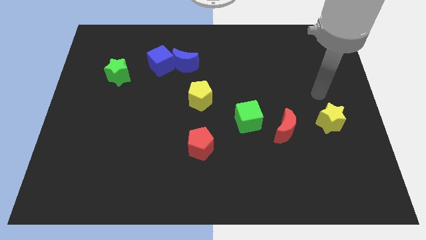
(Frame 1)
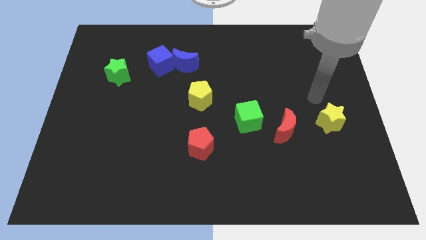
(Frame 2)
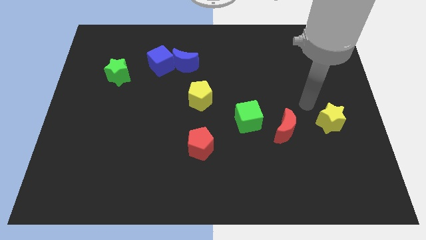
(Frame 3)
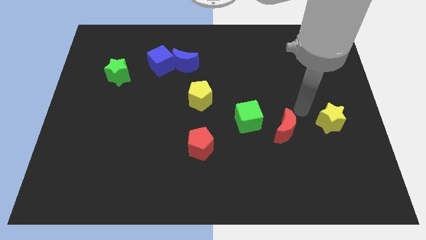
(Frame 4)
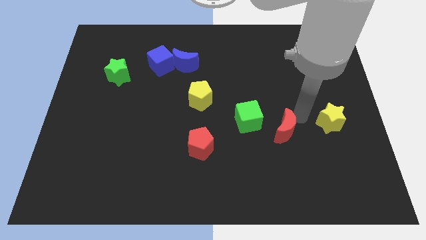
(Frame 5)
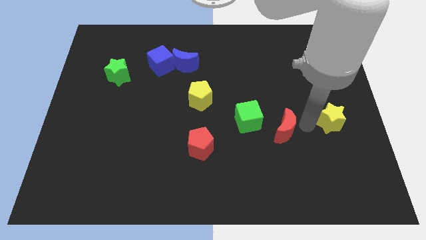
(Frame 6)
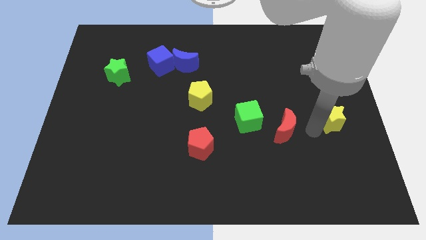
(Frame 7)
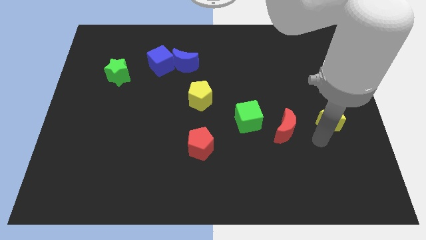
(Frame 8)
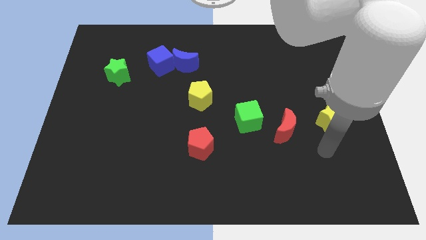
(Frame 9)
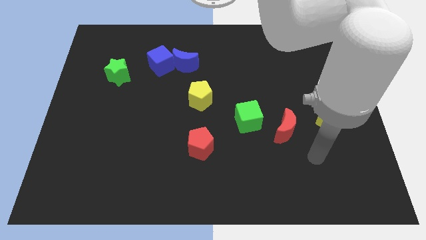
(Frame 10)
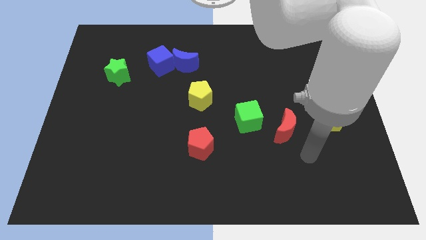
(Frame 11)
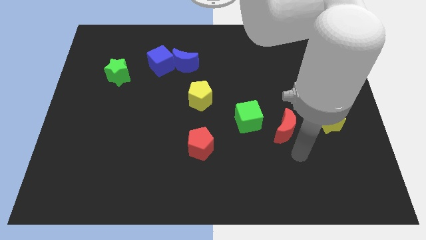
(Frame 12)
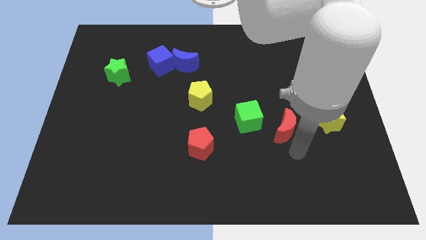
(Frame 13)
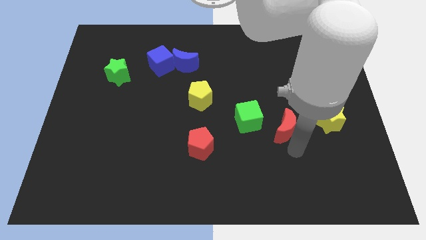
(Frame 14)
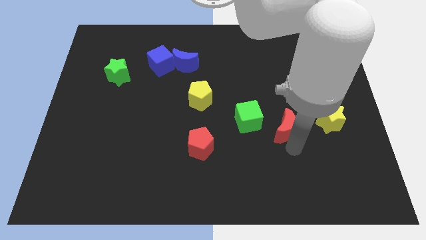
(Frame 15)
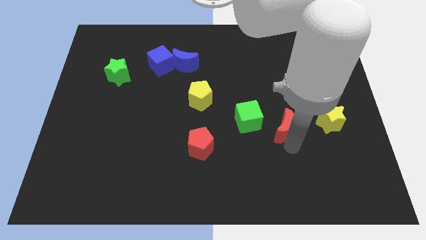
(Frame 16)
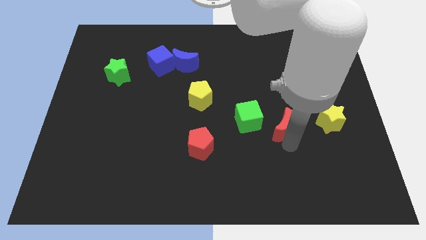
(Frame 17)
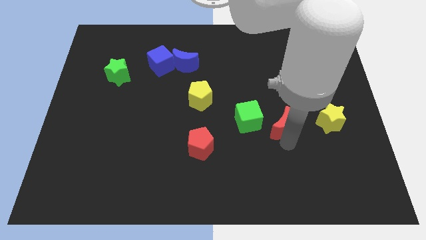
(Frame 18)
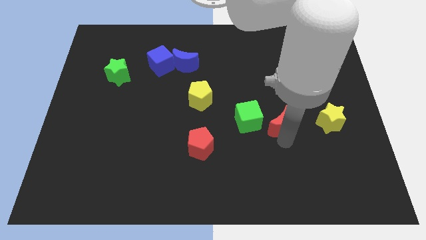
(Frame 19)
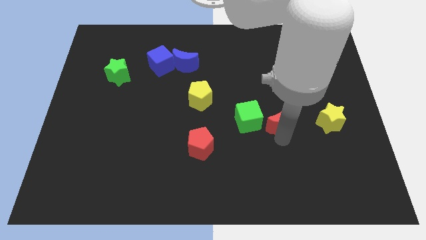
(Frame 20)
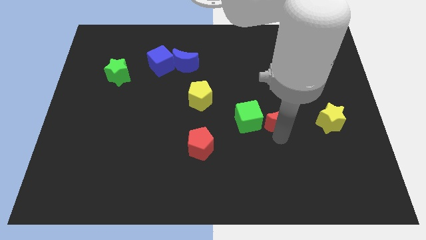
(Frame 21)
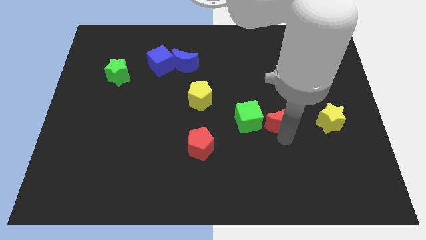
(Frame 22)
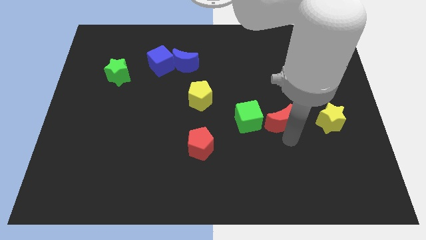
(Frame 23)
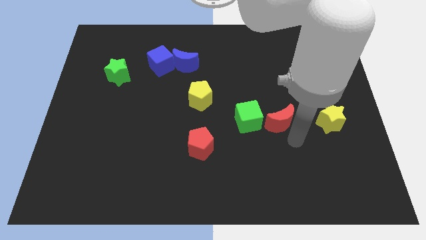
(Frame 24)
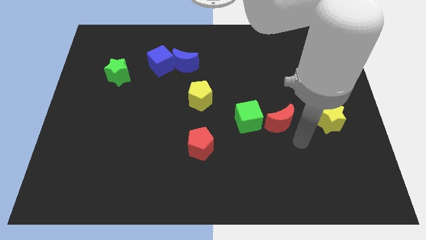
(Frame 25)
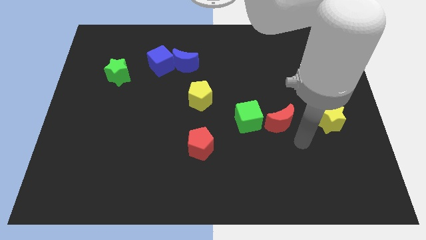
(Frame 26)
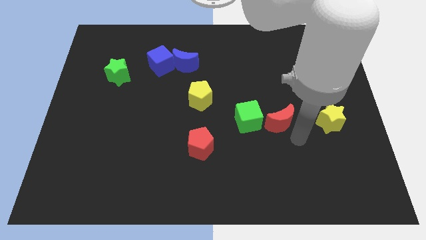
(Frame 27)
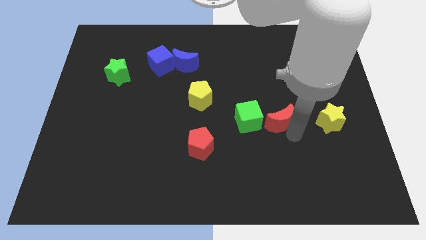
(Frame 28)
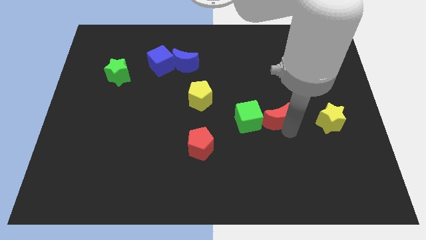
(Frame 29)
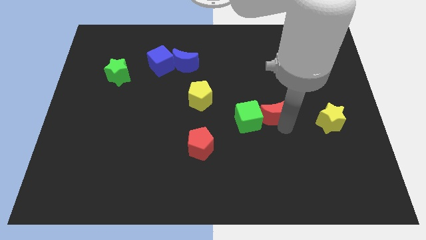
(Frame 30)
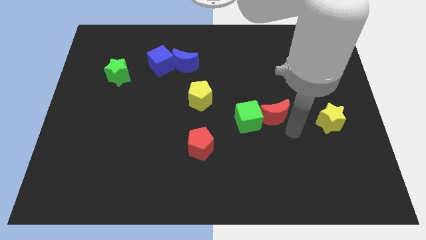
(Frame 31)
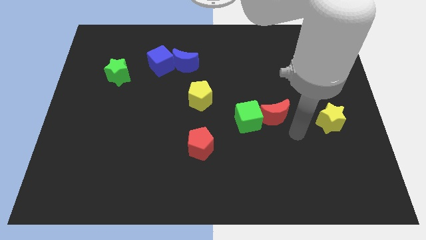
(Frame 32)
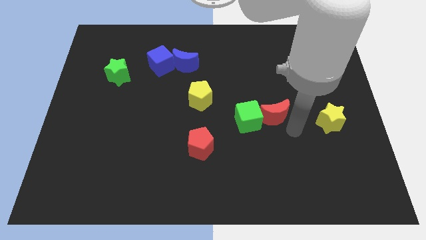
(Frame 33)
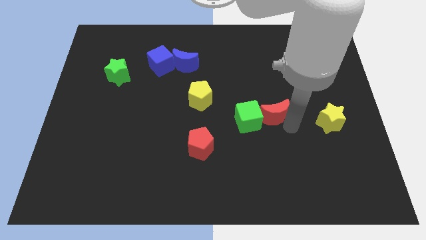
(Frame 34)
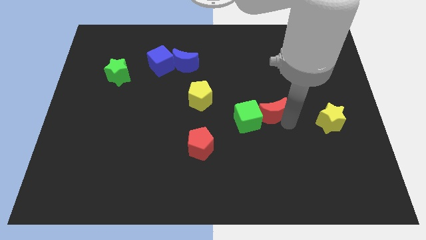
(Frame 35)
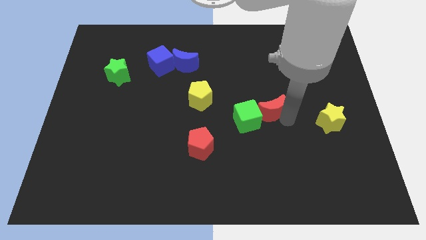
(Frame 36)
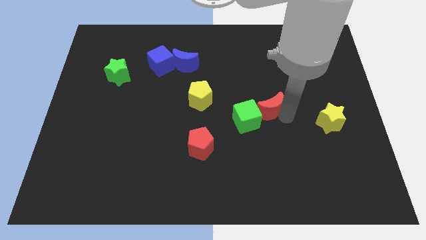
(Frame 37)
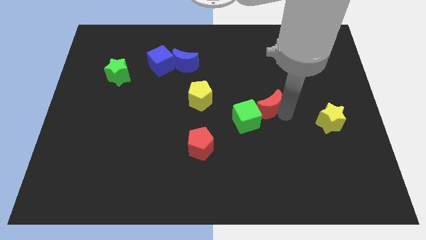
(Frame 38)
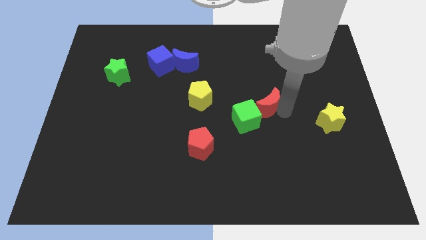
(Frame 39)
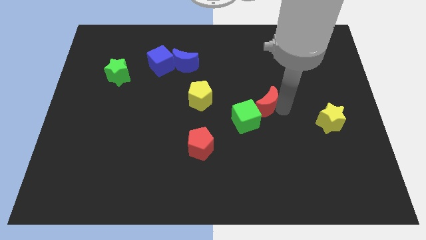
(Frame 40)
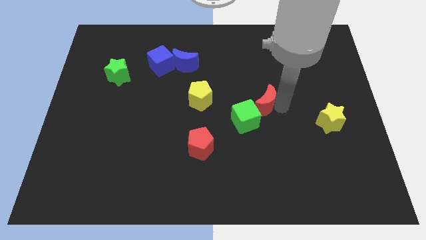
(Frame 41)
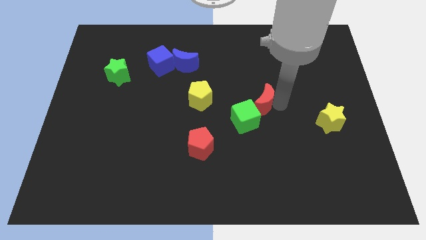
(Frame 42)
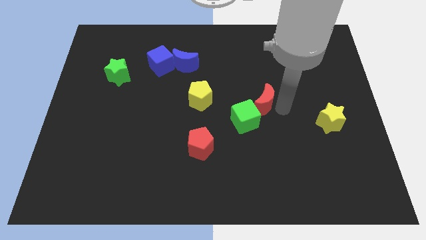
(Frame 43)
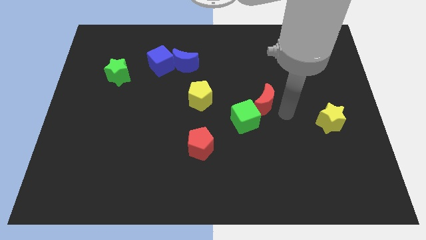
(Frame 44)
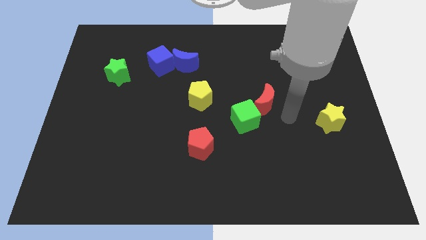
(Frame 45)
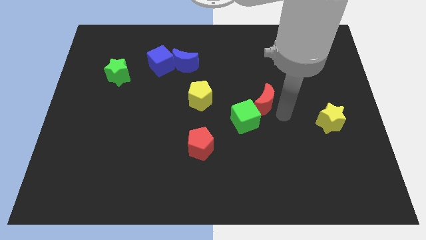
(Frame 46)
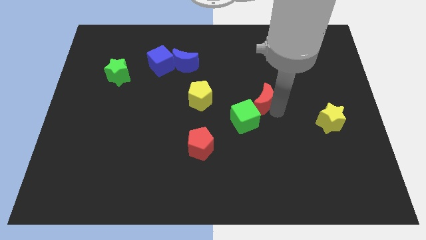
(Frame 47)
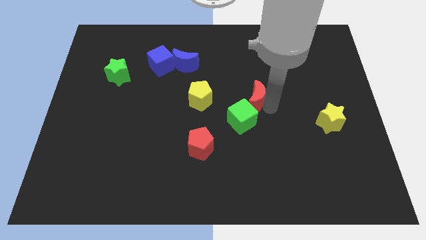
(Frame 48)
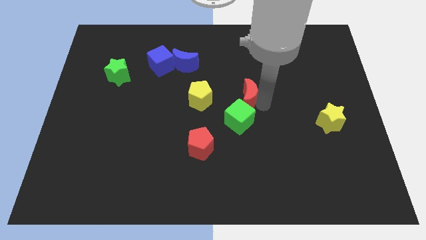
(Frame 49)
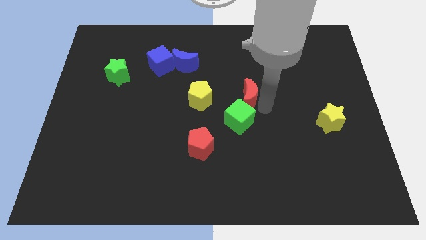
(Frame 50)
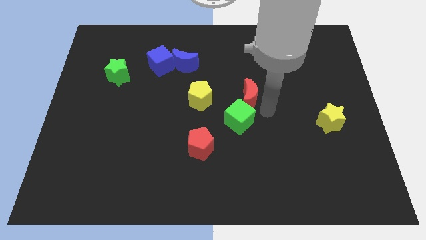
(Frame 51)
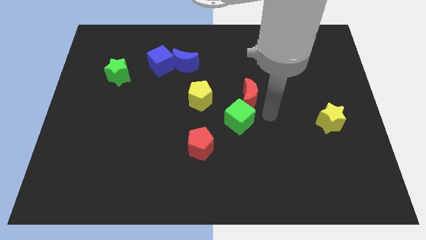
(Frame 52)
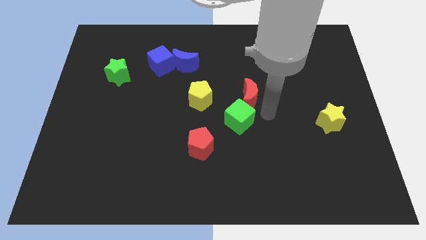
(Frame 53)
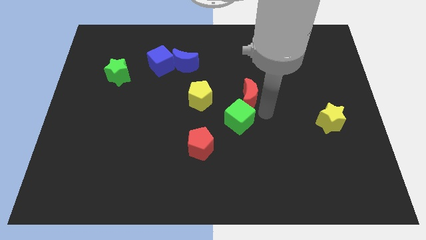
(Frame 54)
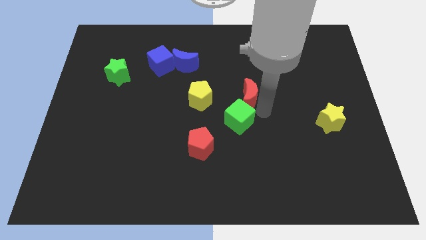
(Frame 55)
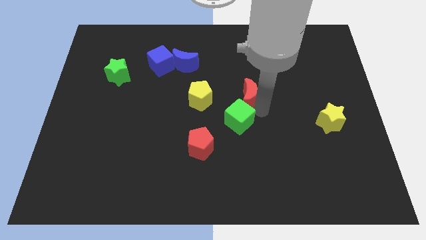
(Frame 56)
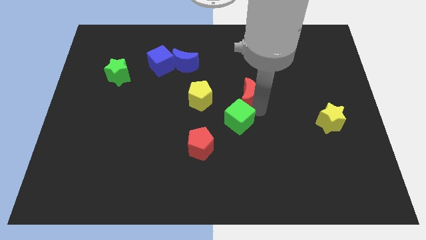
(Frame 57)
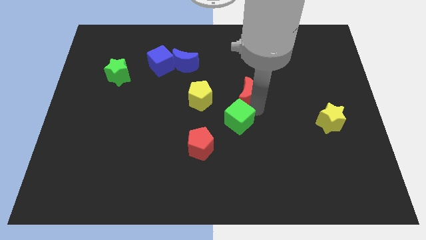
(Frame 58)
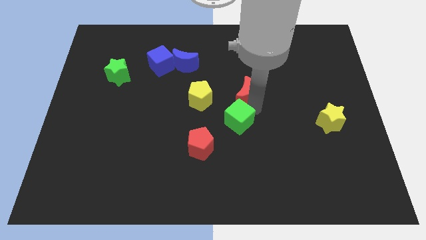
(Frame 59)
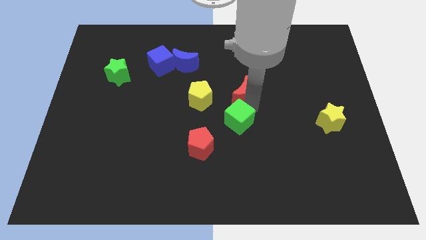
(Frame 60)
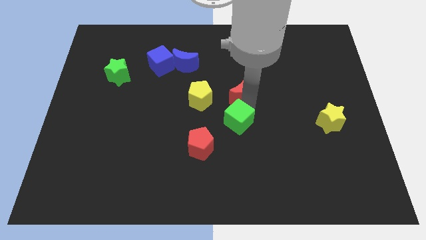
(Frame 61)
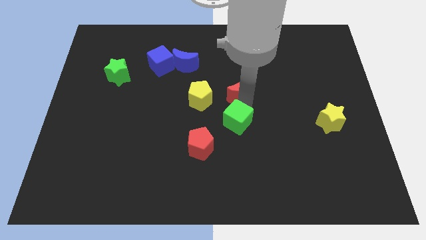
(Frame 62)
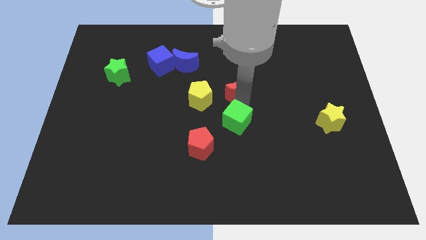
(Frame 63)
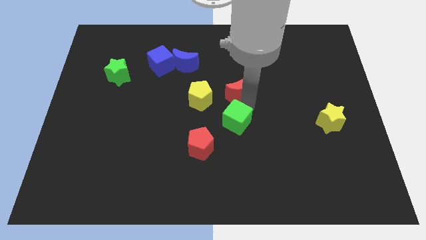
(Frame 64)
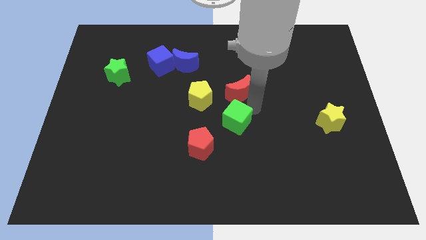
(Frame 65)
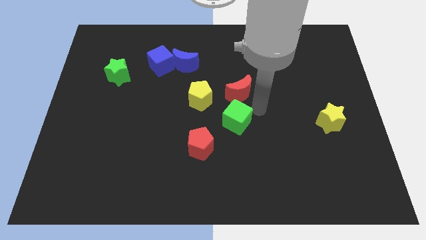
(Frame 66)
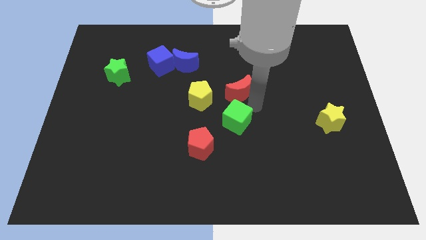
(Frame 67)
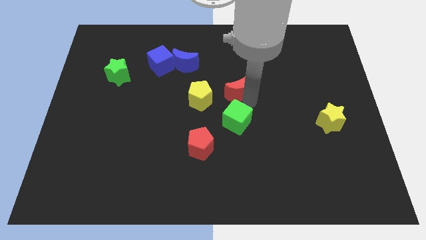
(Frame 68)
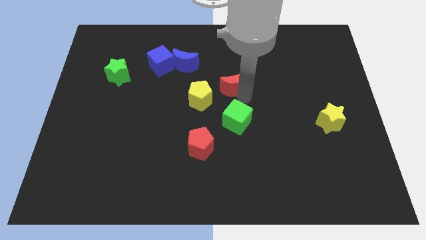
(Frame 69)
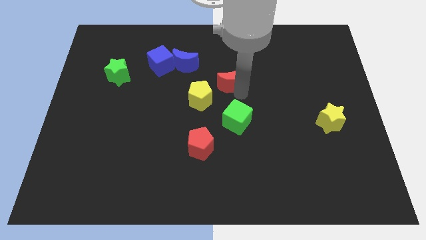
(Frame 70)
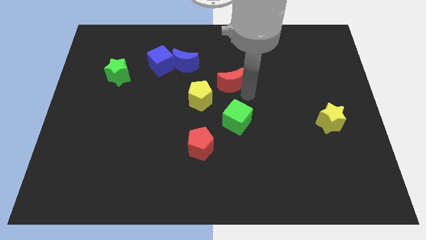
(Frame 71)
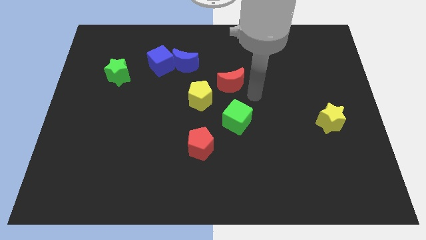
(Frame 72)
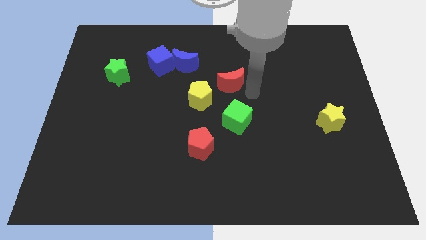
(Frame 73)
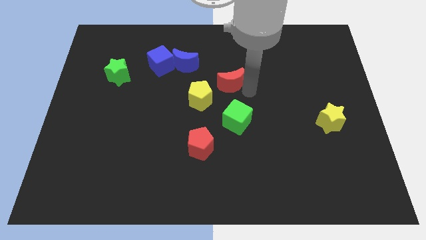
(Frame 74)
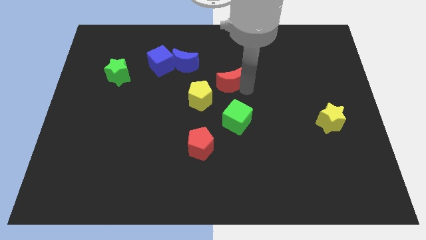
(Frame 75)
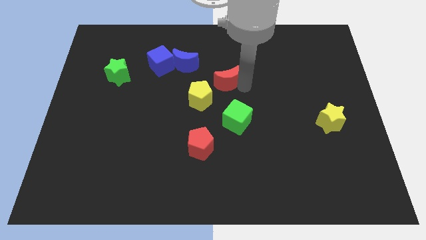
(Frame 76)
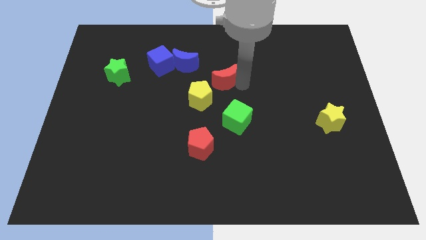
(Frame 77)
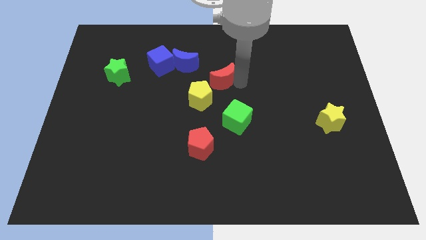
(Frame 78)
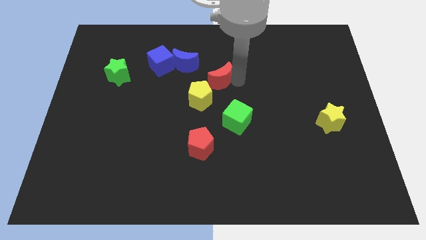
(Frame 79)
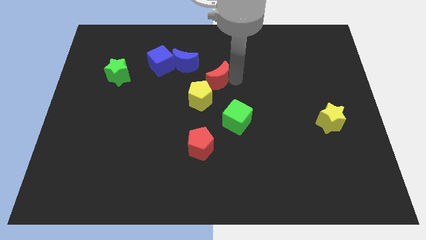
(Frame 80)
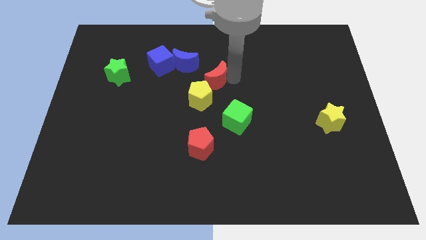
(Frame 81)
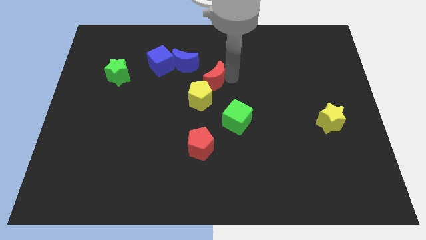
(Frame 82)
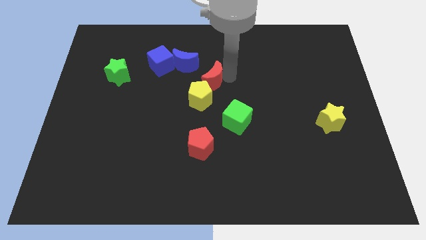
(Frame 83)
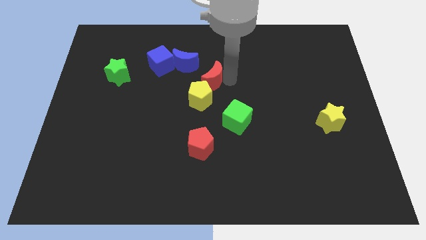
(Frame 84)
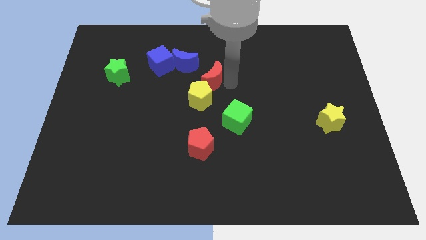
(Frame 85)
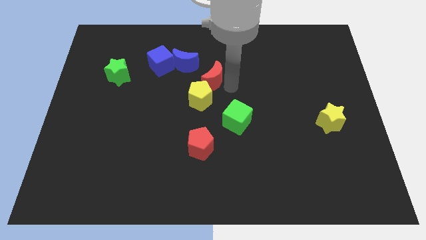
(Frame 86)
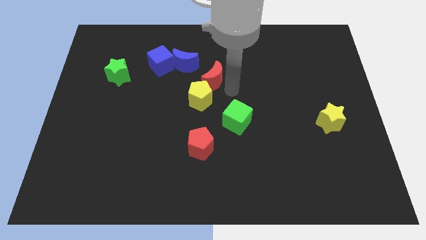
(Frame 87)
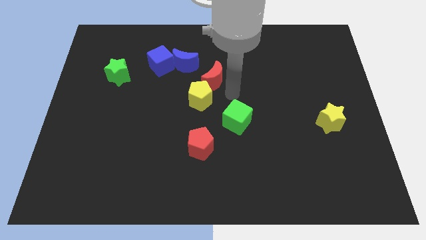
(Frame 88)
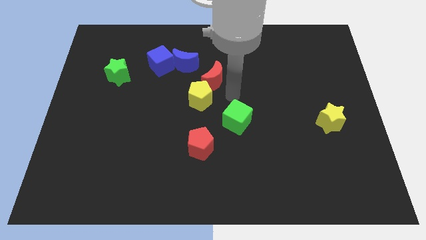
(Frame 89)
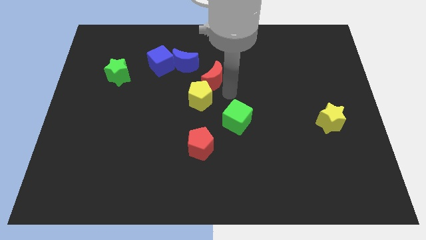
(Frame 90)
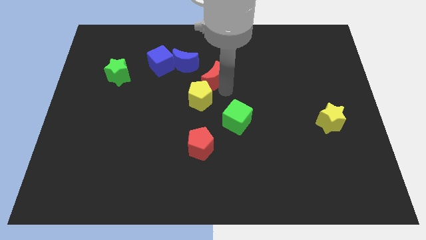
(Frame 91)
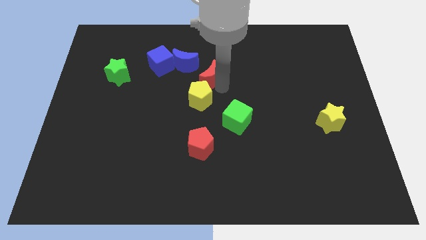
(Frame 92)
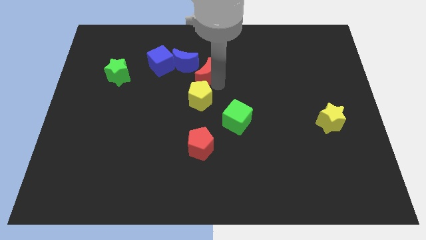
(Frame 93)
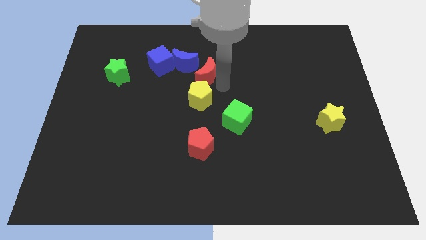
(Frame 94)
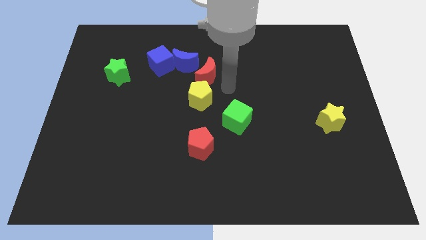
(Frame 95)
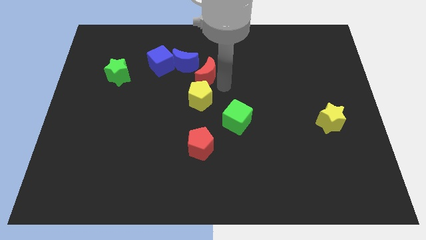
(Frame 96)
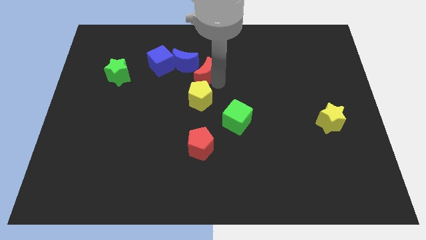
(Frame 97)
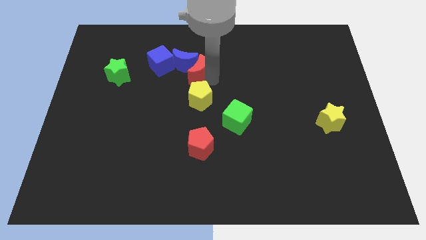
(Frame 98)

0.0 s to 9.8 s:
move the red moon close to the blue moon
